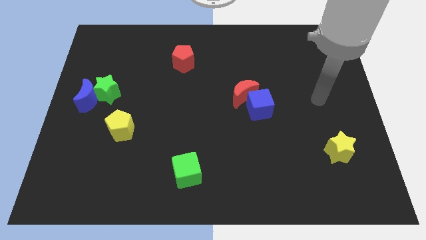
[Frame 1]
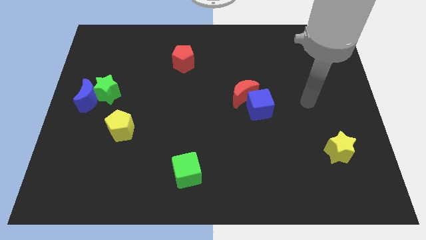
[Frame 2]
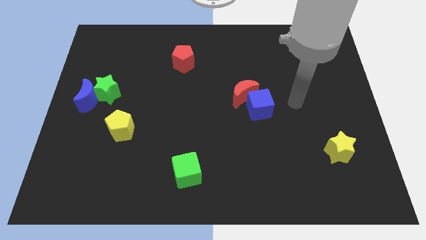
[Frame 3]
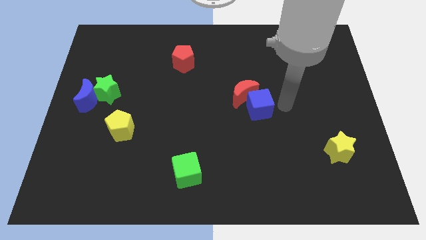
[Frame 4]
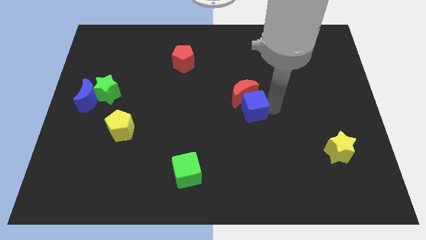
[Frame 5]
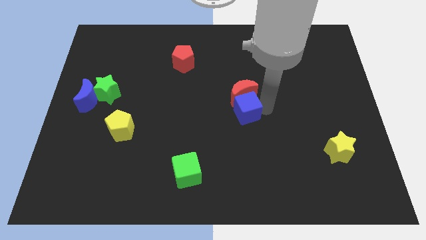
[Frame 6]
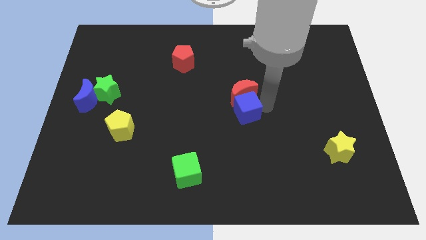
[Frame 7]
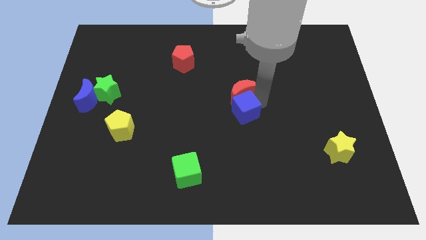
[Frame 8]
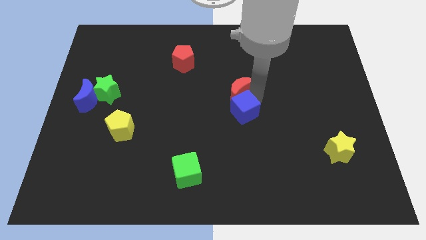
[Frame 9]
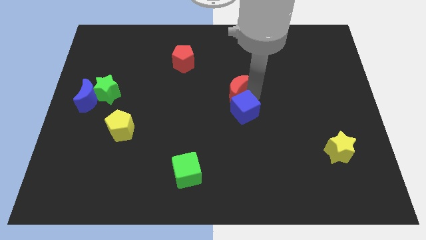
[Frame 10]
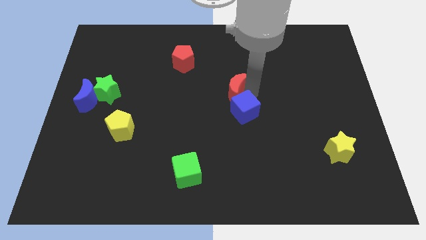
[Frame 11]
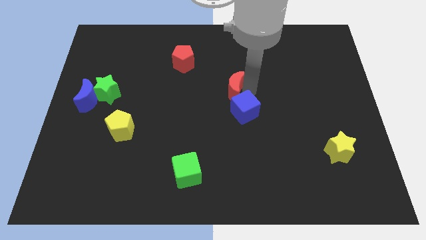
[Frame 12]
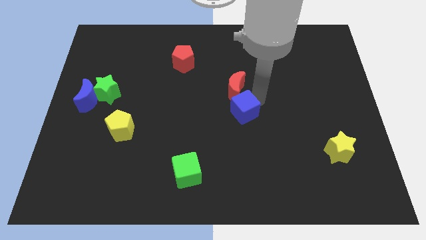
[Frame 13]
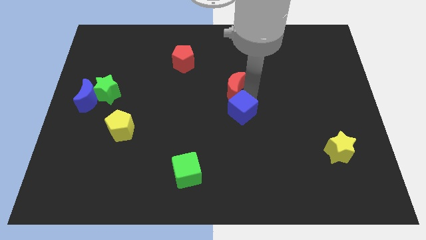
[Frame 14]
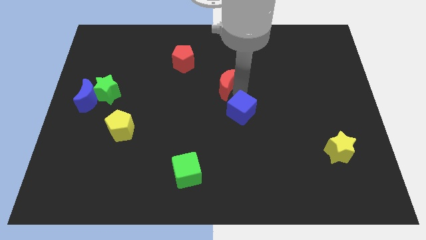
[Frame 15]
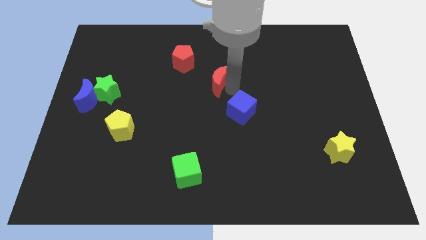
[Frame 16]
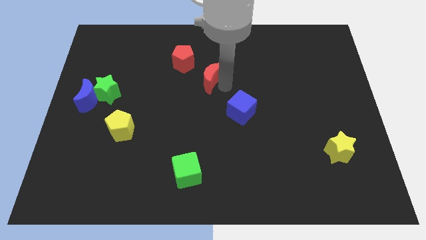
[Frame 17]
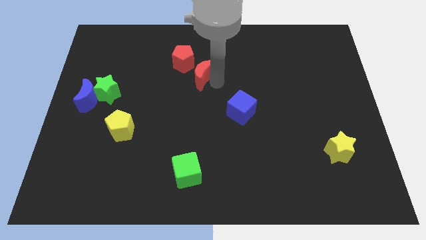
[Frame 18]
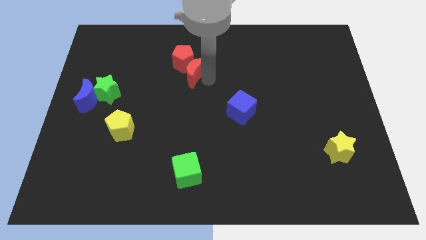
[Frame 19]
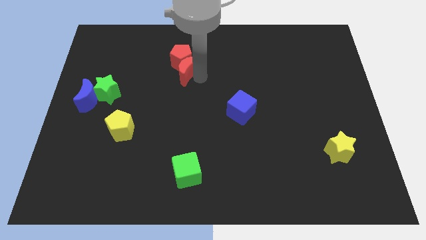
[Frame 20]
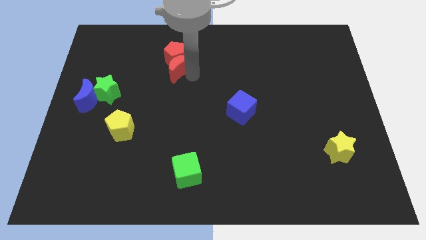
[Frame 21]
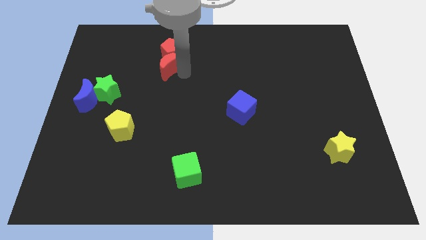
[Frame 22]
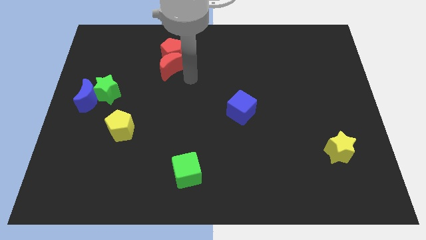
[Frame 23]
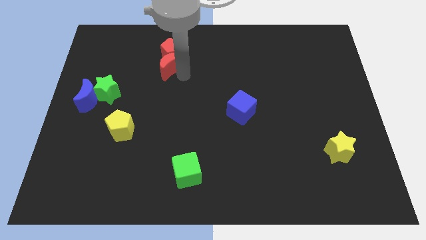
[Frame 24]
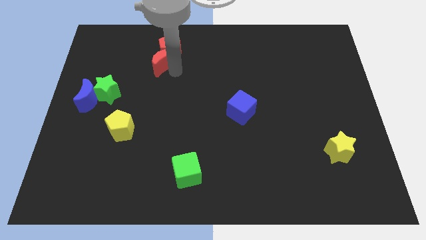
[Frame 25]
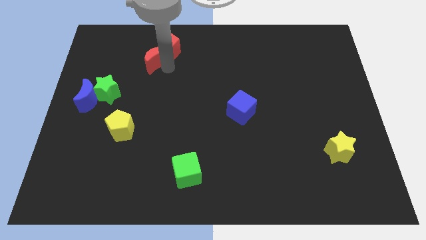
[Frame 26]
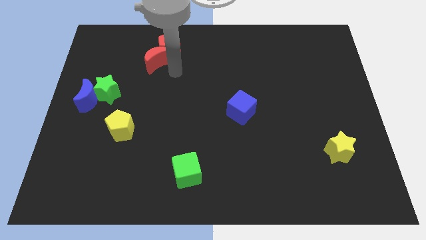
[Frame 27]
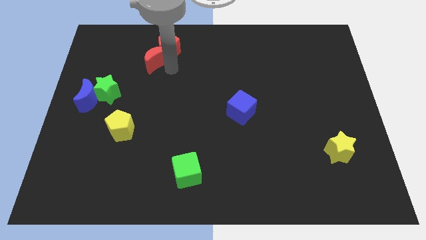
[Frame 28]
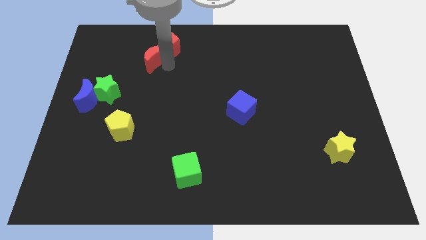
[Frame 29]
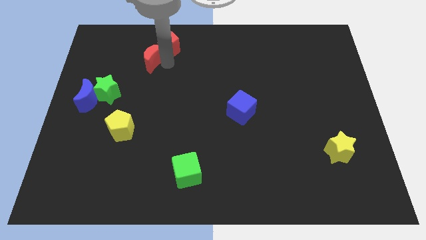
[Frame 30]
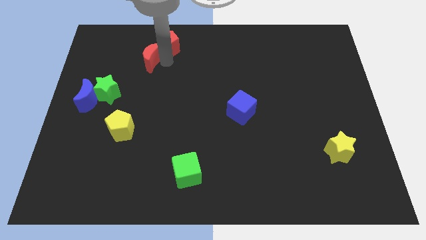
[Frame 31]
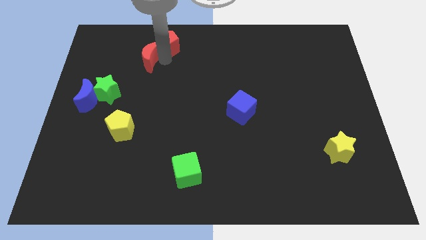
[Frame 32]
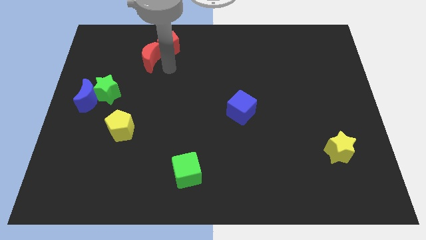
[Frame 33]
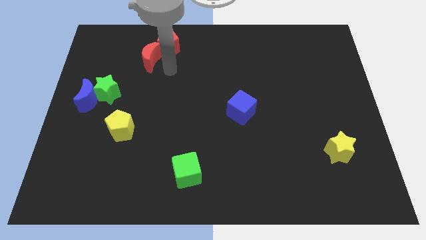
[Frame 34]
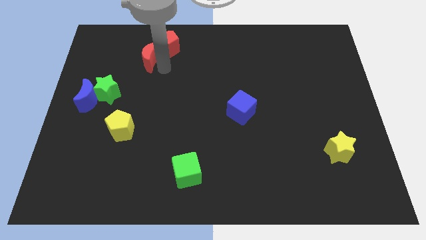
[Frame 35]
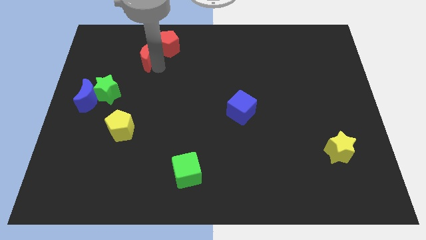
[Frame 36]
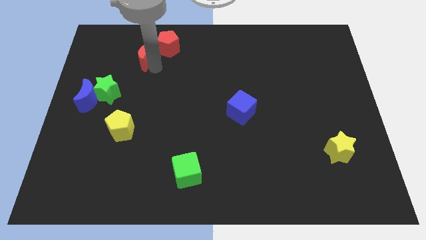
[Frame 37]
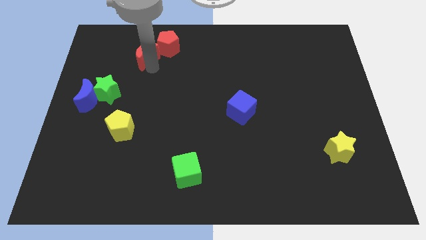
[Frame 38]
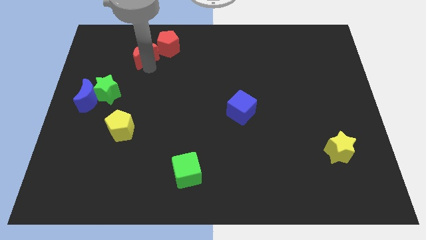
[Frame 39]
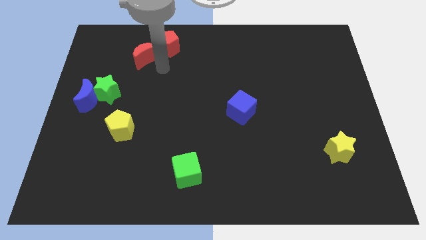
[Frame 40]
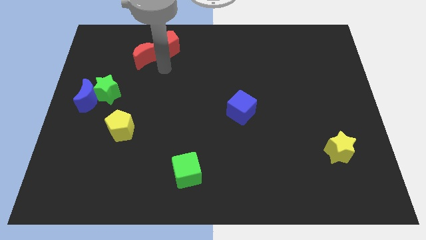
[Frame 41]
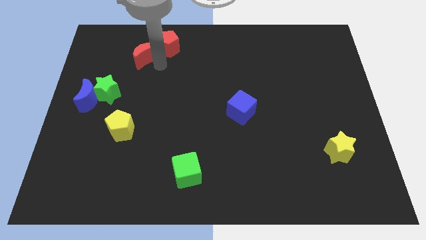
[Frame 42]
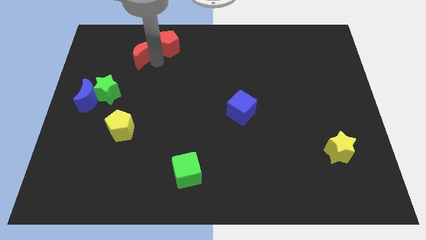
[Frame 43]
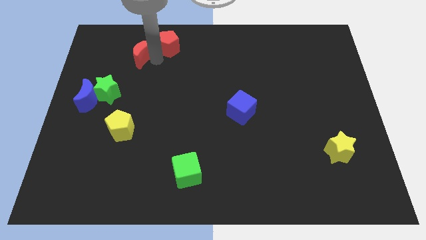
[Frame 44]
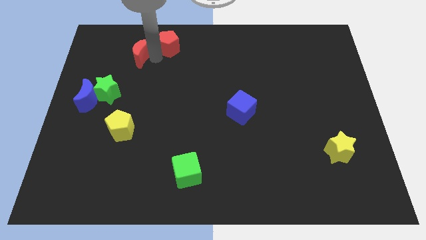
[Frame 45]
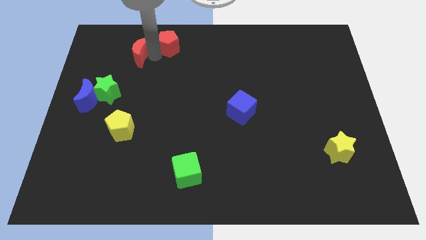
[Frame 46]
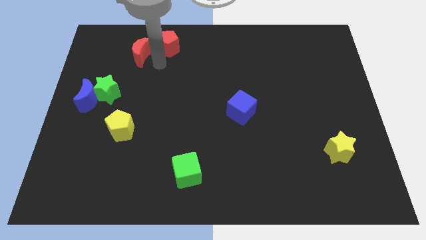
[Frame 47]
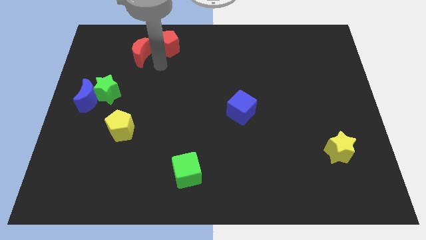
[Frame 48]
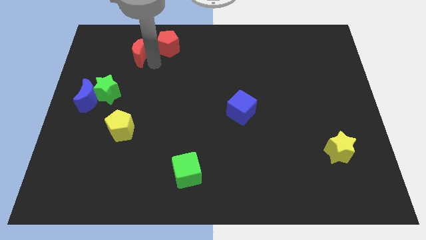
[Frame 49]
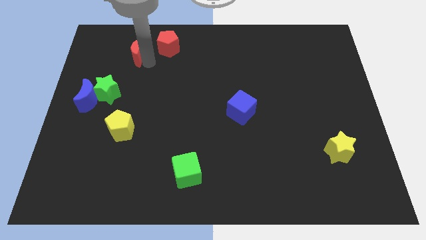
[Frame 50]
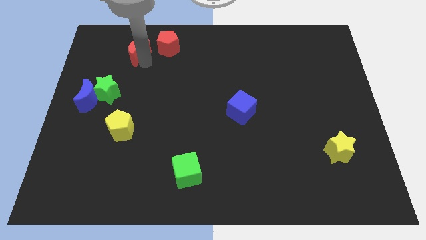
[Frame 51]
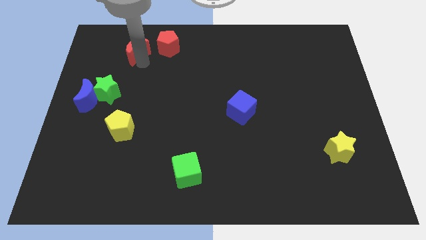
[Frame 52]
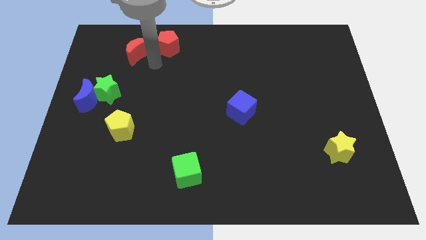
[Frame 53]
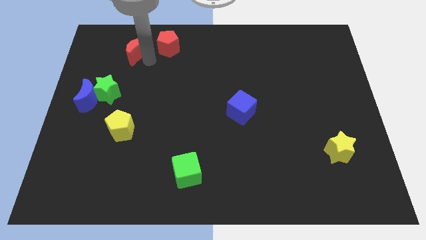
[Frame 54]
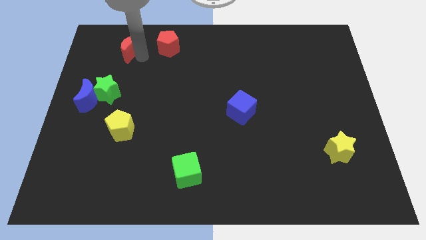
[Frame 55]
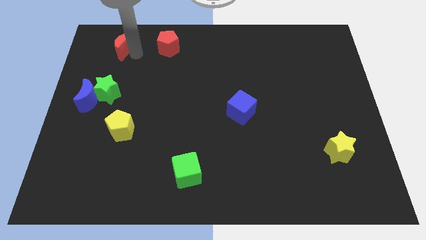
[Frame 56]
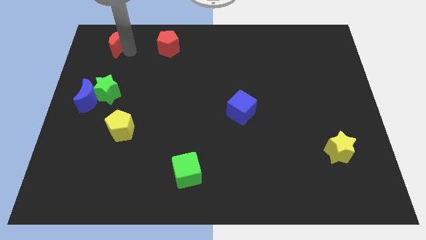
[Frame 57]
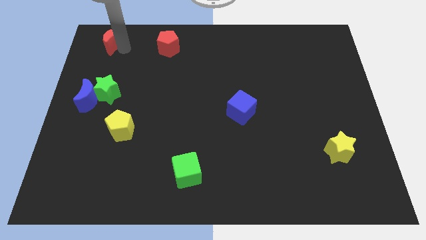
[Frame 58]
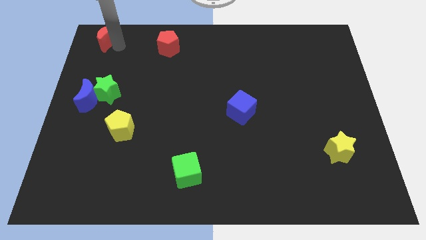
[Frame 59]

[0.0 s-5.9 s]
slide the red moon to the upper left corner
